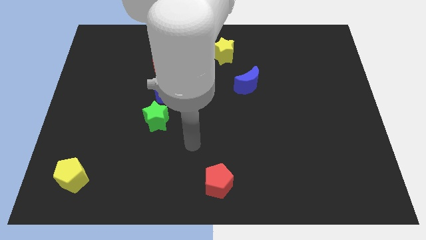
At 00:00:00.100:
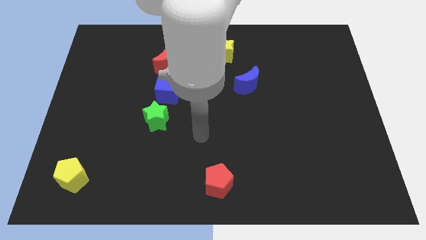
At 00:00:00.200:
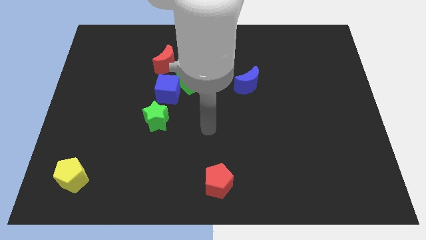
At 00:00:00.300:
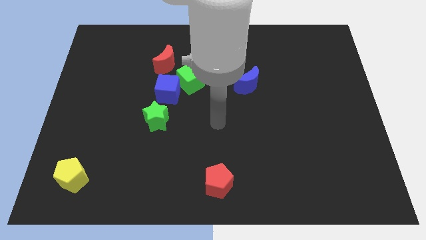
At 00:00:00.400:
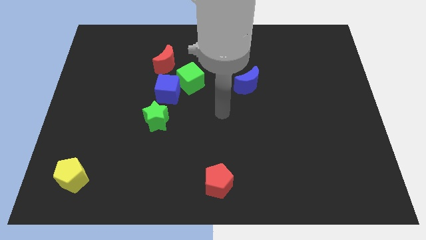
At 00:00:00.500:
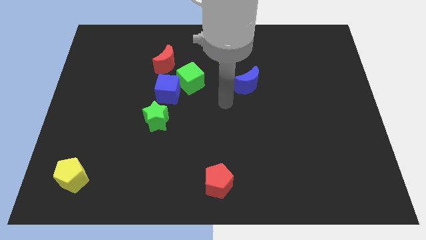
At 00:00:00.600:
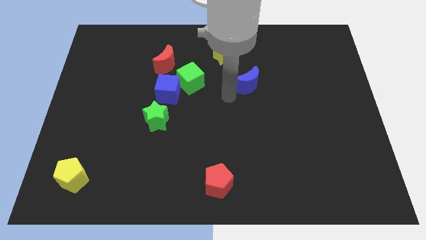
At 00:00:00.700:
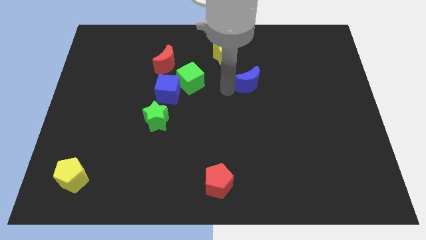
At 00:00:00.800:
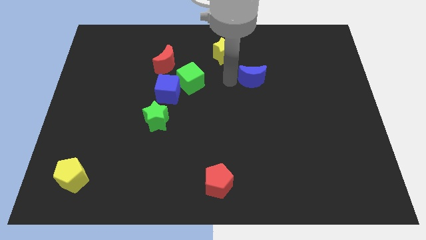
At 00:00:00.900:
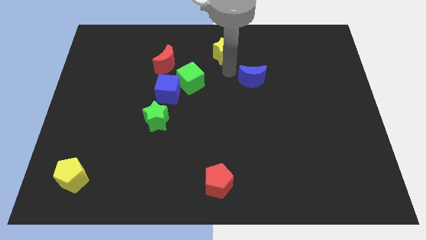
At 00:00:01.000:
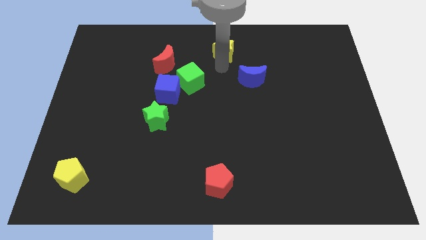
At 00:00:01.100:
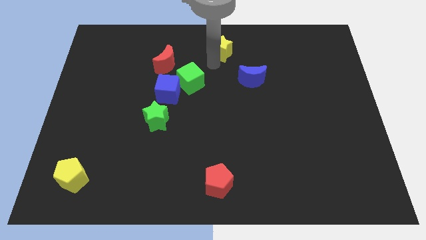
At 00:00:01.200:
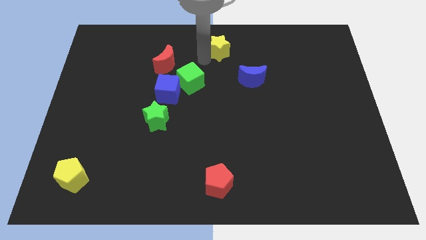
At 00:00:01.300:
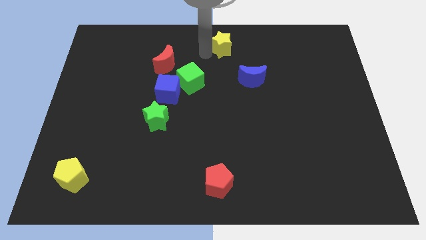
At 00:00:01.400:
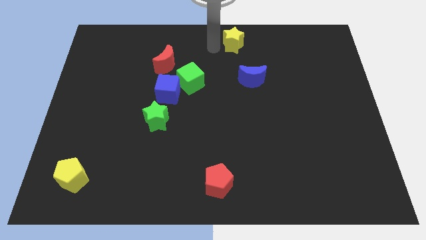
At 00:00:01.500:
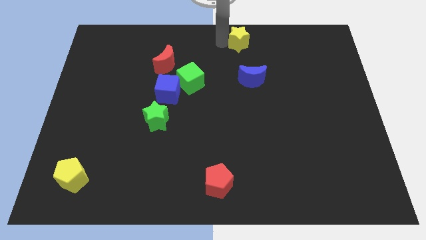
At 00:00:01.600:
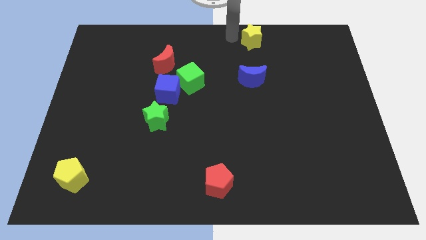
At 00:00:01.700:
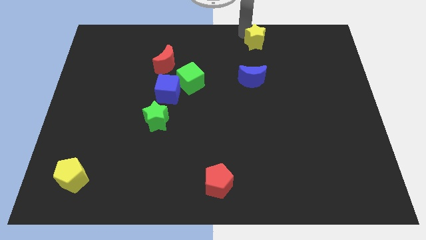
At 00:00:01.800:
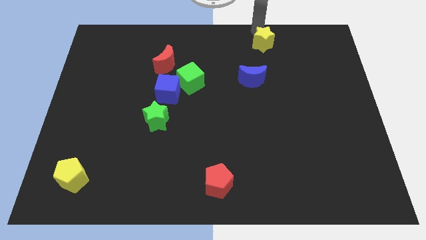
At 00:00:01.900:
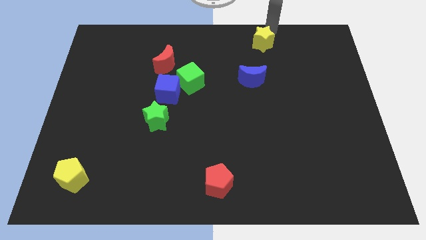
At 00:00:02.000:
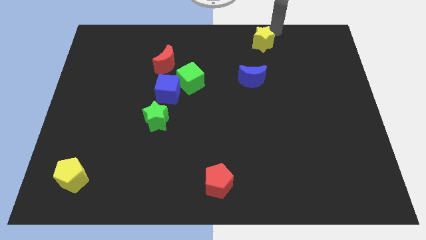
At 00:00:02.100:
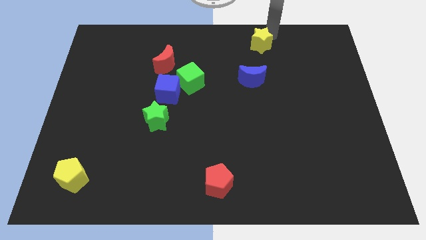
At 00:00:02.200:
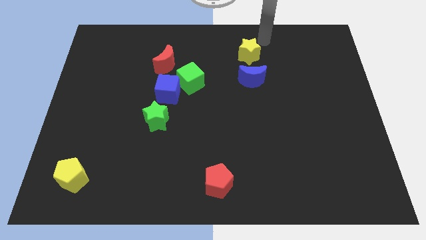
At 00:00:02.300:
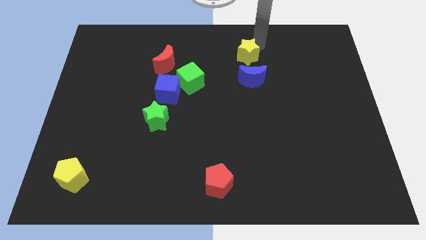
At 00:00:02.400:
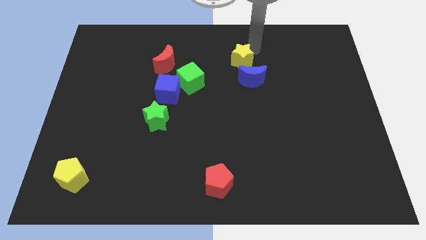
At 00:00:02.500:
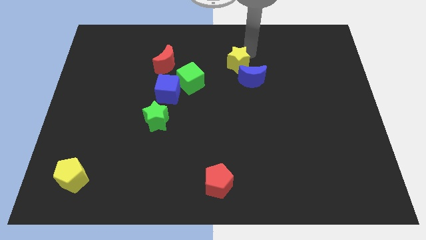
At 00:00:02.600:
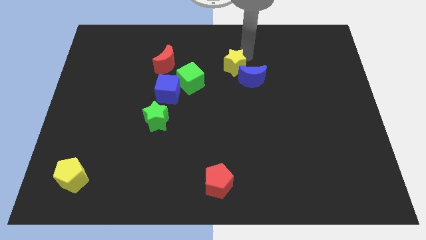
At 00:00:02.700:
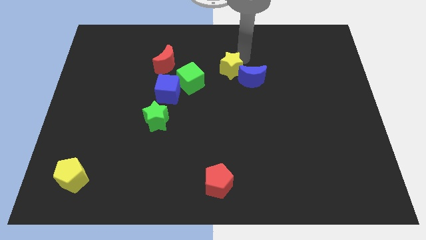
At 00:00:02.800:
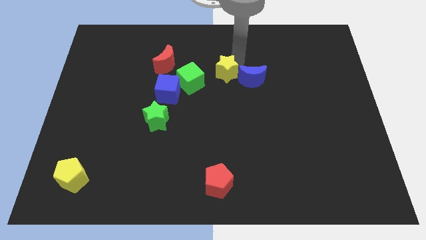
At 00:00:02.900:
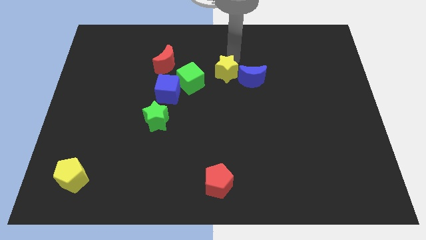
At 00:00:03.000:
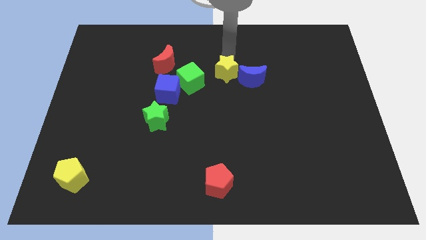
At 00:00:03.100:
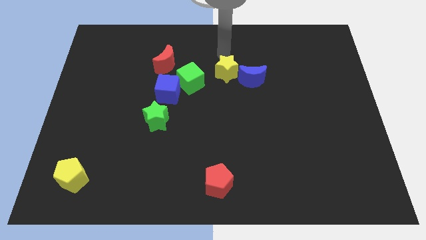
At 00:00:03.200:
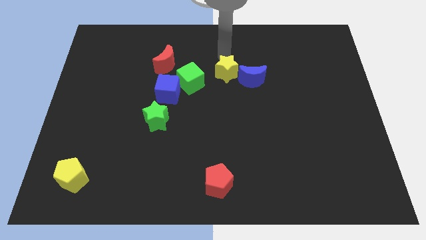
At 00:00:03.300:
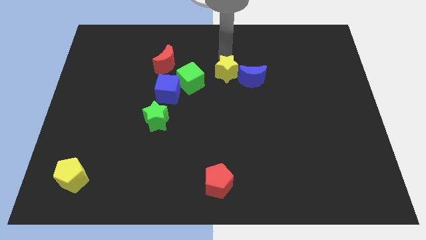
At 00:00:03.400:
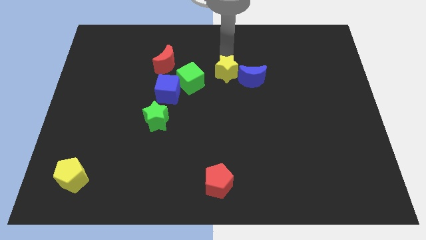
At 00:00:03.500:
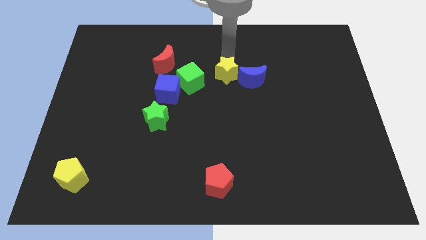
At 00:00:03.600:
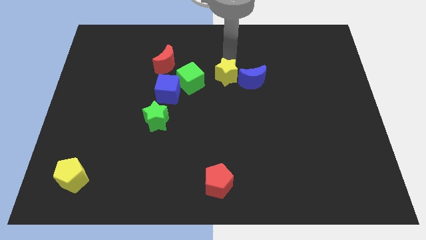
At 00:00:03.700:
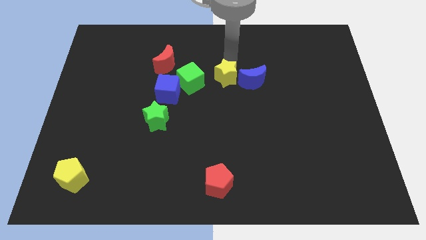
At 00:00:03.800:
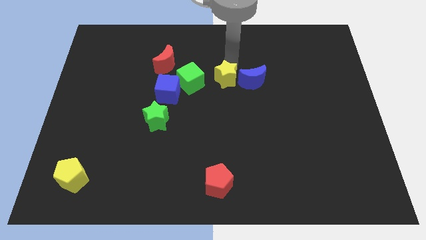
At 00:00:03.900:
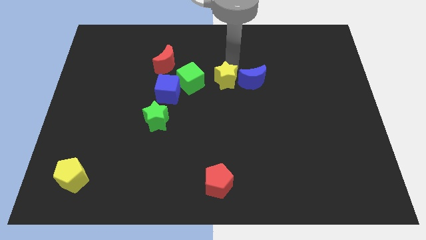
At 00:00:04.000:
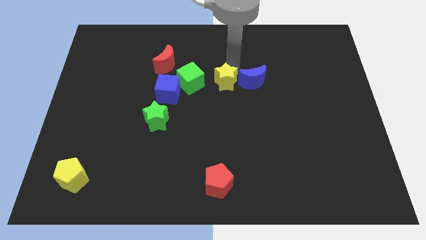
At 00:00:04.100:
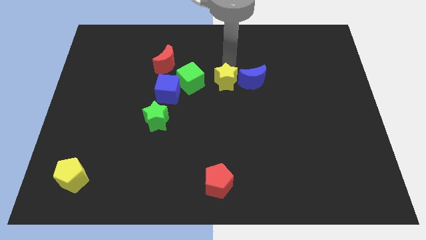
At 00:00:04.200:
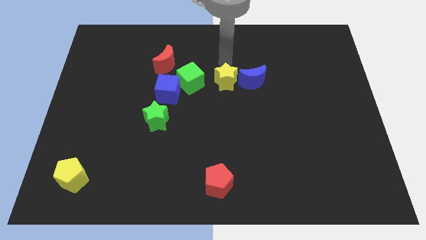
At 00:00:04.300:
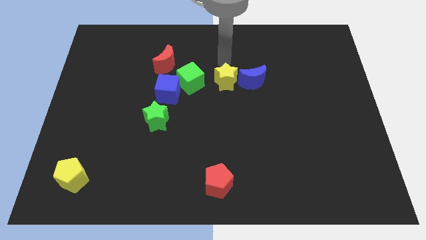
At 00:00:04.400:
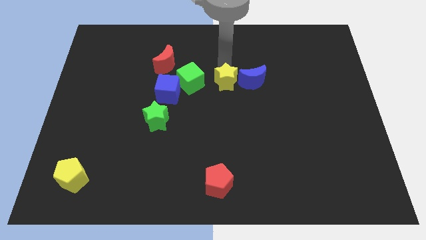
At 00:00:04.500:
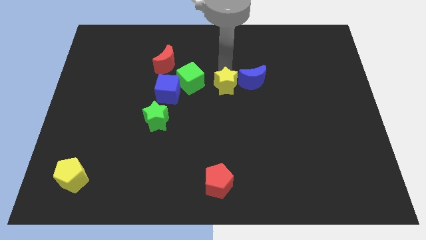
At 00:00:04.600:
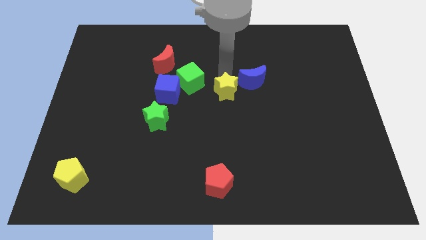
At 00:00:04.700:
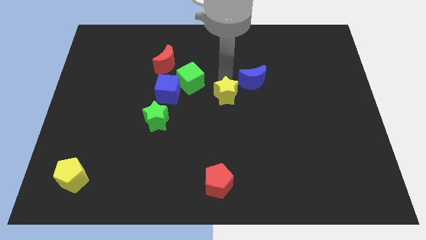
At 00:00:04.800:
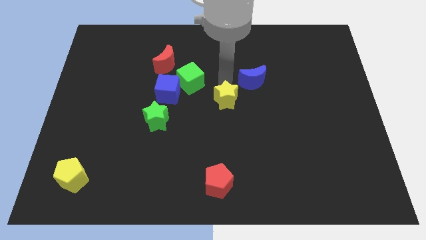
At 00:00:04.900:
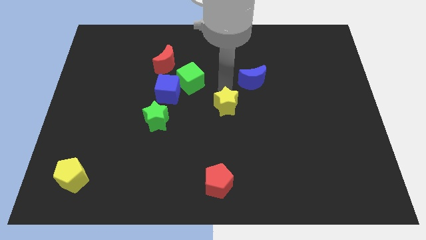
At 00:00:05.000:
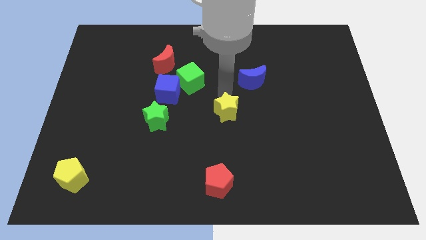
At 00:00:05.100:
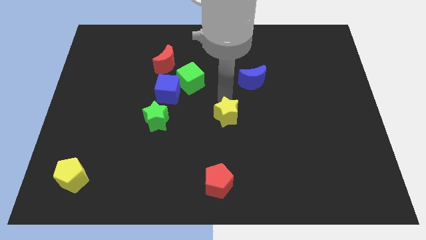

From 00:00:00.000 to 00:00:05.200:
push the yellow star downwards

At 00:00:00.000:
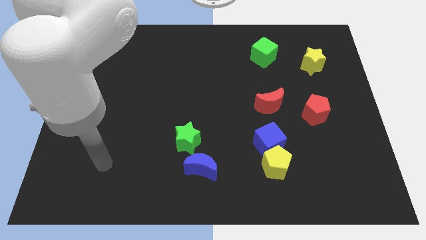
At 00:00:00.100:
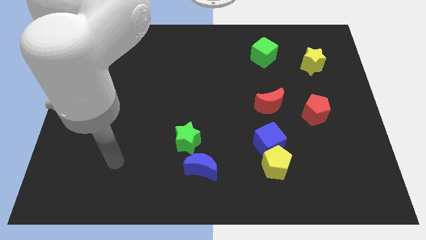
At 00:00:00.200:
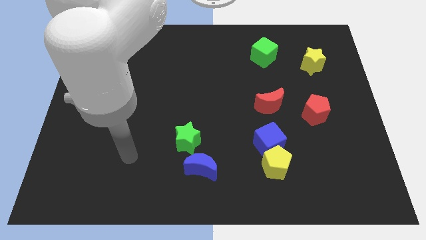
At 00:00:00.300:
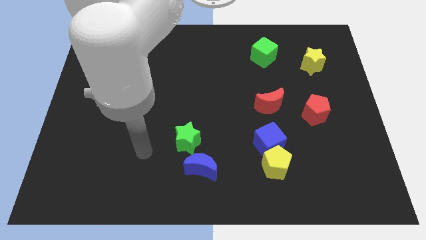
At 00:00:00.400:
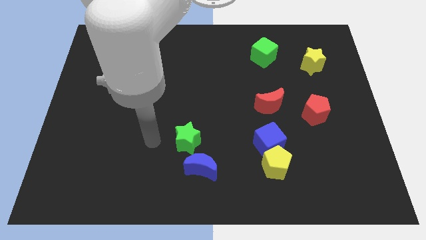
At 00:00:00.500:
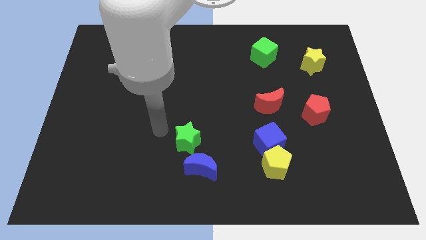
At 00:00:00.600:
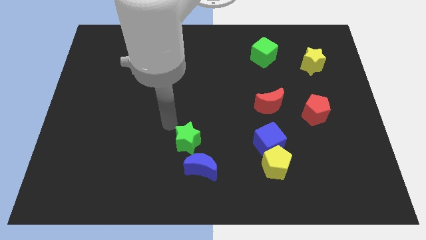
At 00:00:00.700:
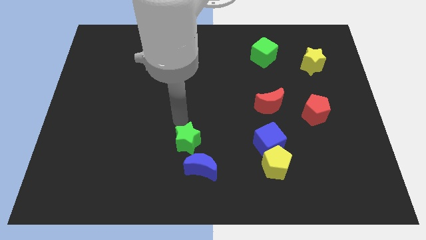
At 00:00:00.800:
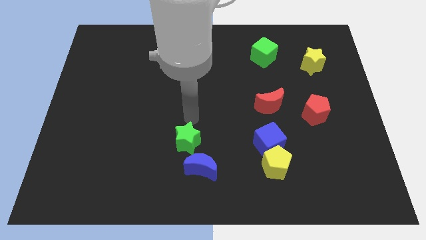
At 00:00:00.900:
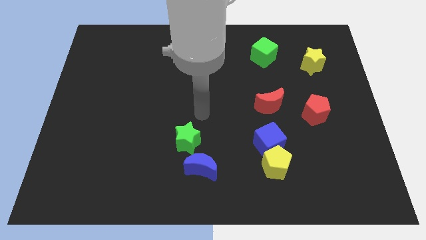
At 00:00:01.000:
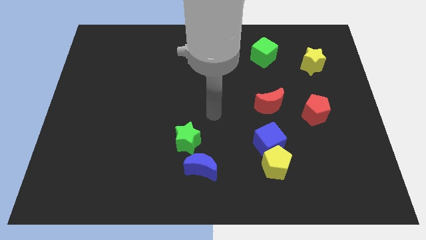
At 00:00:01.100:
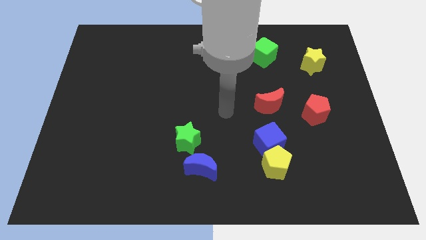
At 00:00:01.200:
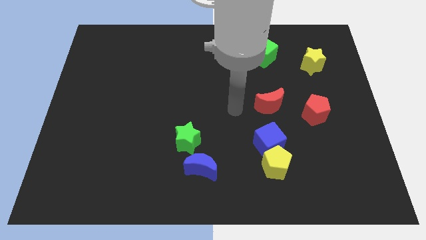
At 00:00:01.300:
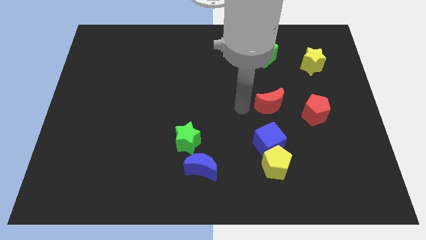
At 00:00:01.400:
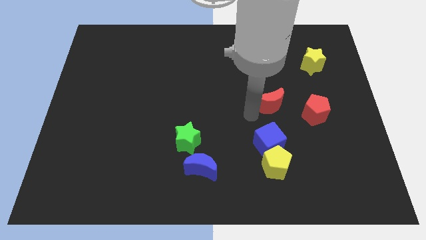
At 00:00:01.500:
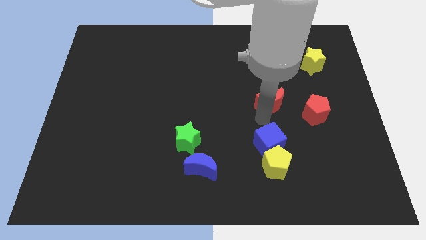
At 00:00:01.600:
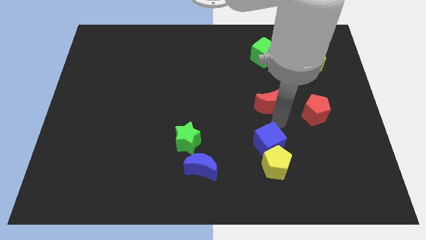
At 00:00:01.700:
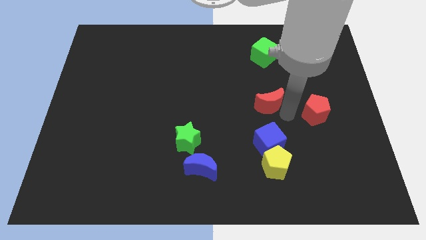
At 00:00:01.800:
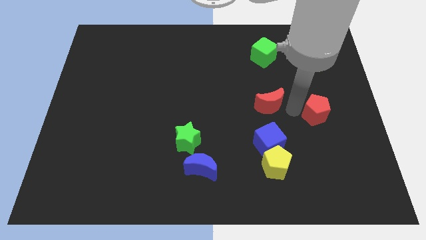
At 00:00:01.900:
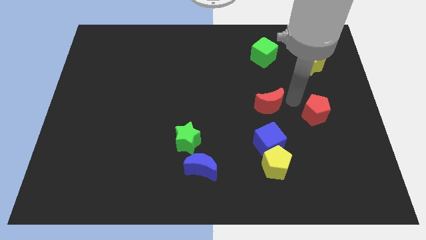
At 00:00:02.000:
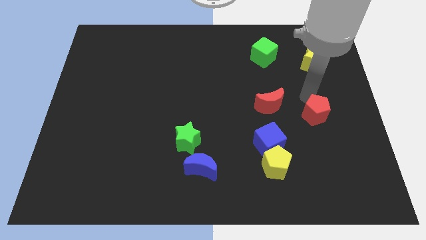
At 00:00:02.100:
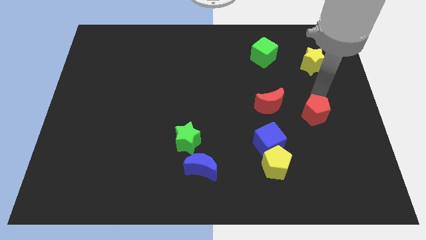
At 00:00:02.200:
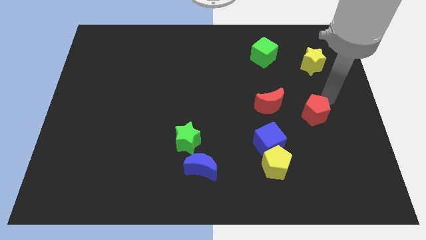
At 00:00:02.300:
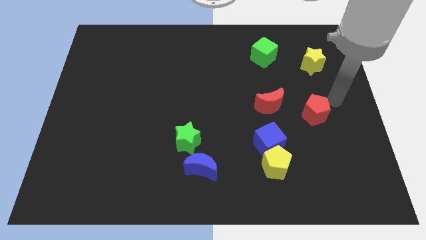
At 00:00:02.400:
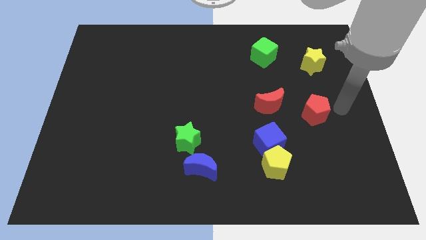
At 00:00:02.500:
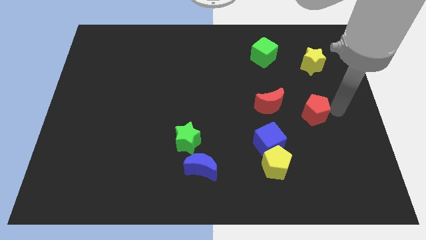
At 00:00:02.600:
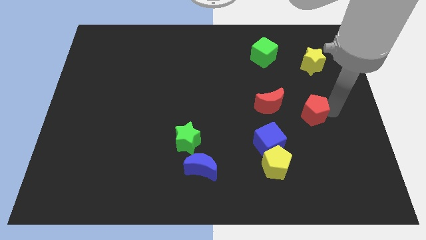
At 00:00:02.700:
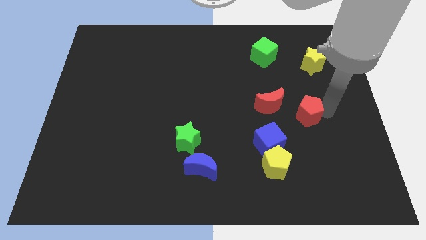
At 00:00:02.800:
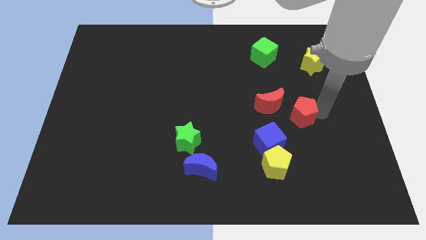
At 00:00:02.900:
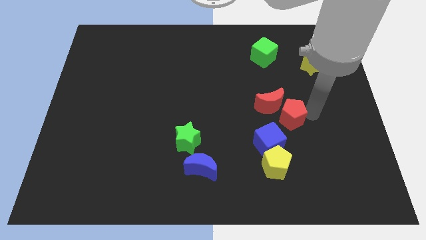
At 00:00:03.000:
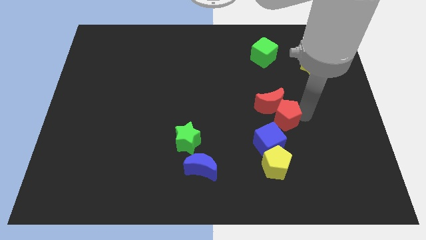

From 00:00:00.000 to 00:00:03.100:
push the red pentagon a little to the left
